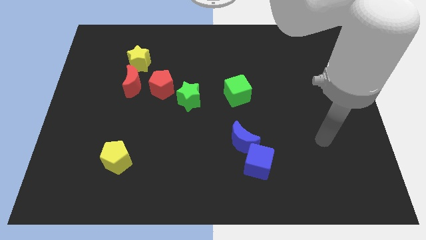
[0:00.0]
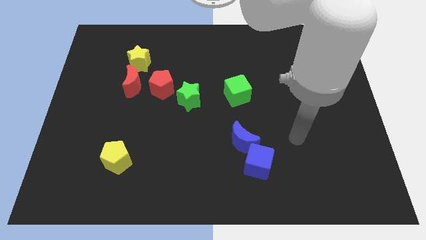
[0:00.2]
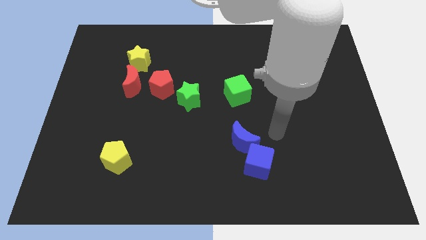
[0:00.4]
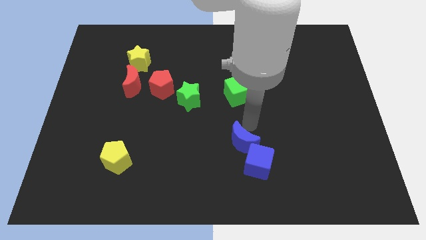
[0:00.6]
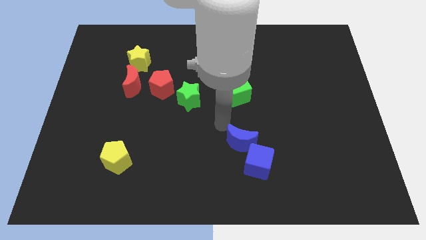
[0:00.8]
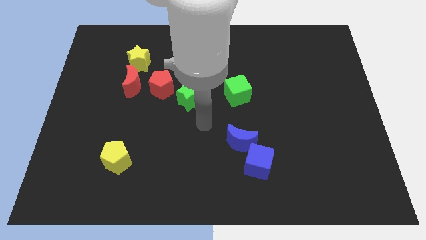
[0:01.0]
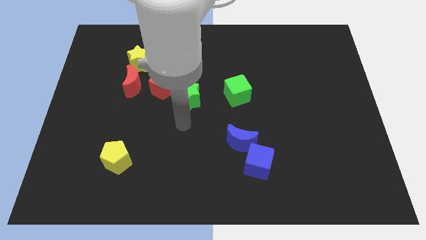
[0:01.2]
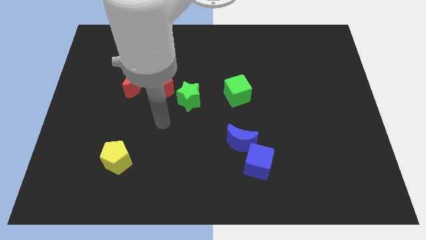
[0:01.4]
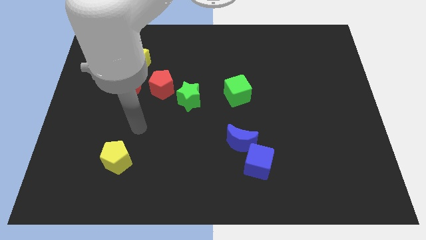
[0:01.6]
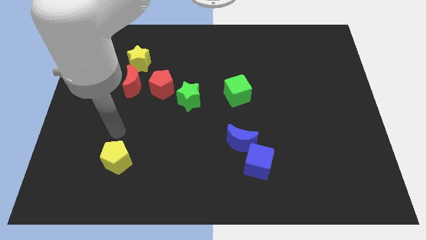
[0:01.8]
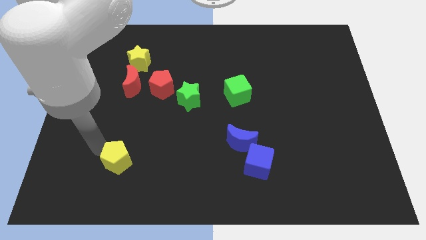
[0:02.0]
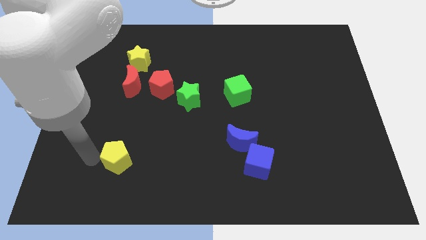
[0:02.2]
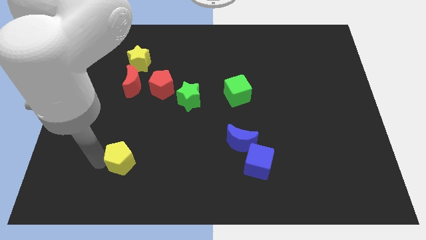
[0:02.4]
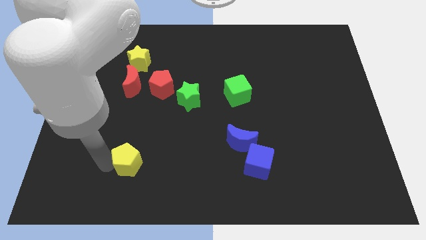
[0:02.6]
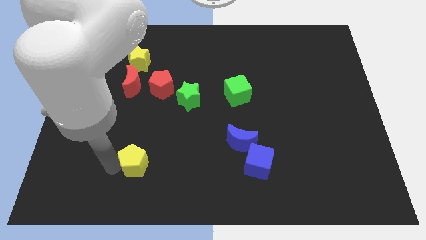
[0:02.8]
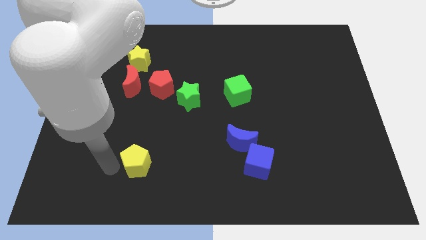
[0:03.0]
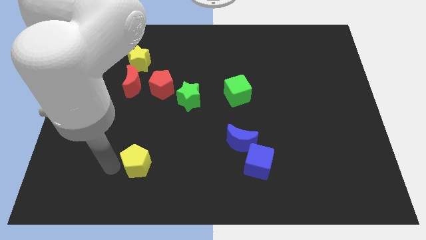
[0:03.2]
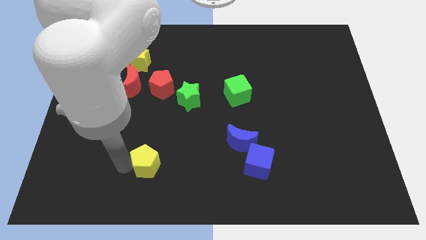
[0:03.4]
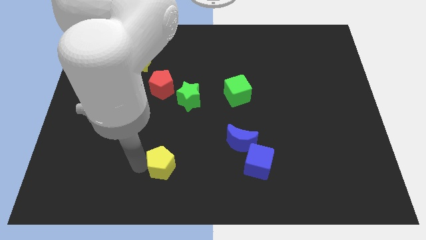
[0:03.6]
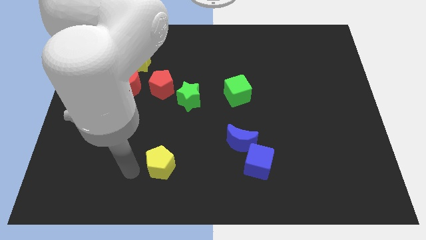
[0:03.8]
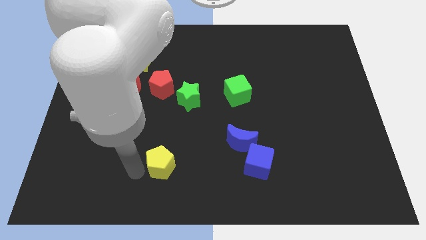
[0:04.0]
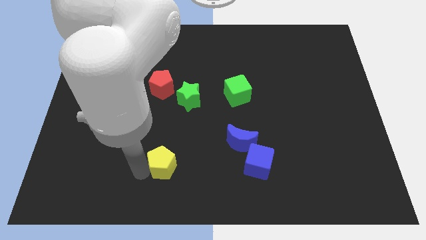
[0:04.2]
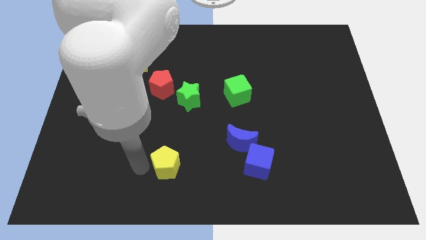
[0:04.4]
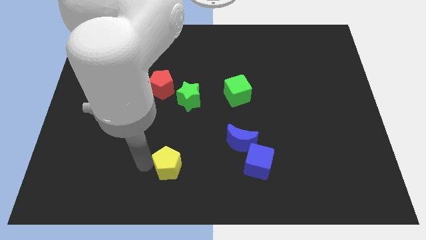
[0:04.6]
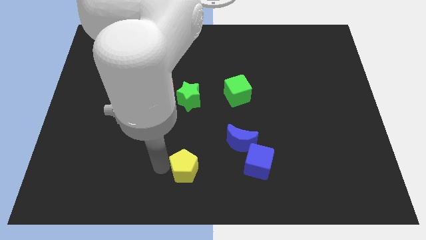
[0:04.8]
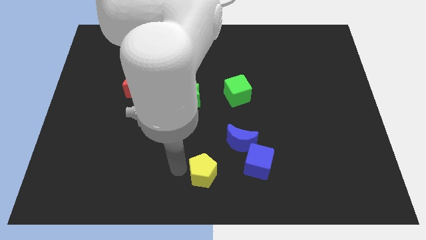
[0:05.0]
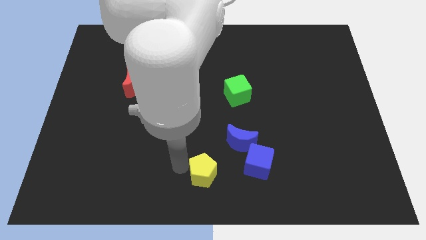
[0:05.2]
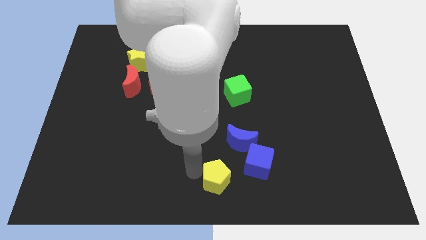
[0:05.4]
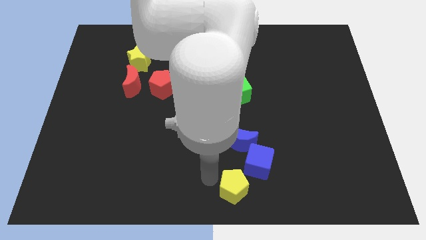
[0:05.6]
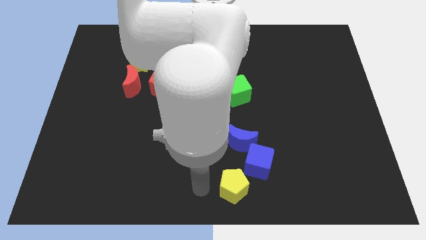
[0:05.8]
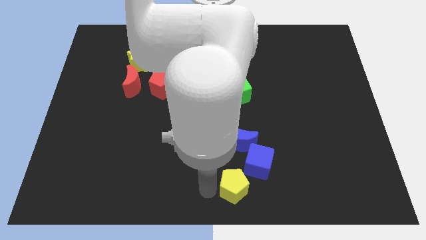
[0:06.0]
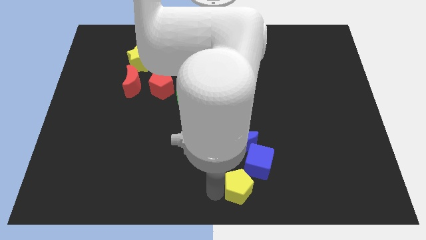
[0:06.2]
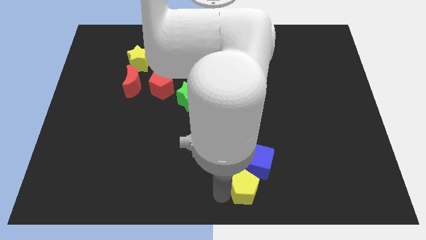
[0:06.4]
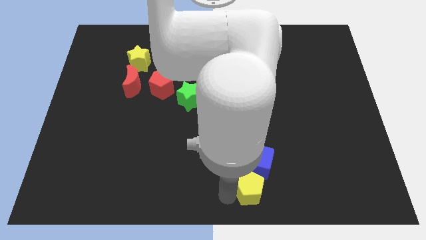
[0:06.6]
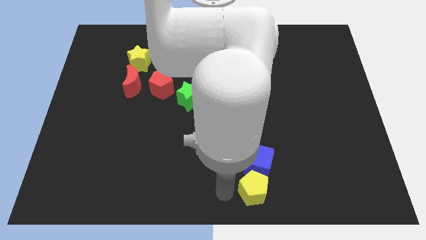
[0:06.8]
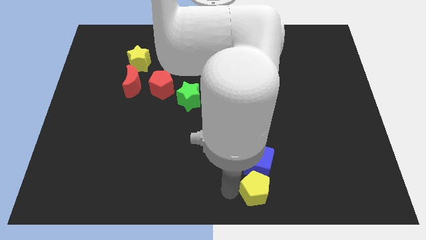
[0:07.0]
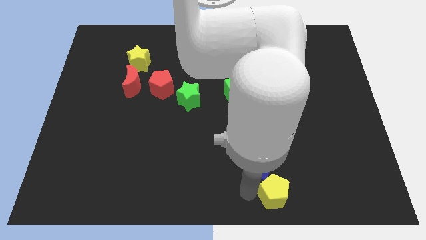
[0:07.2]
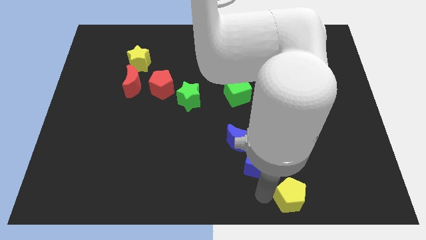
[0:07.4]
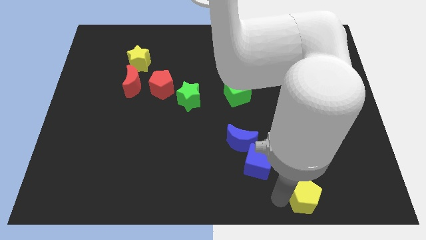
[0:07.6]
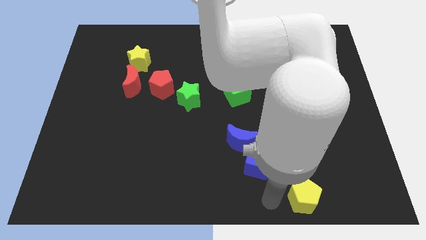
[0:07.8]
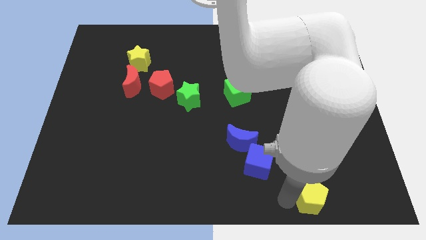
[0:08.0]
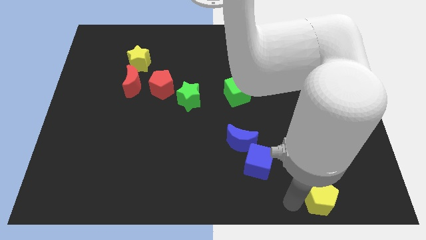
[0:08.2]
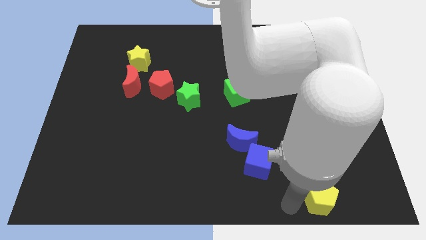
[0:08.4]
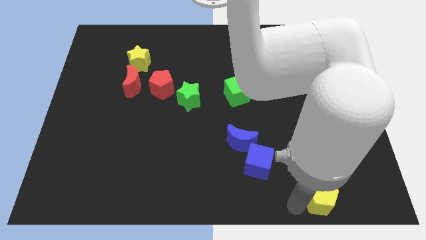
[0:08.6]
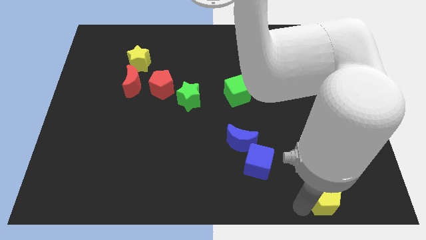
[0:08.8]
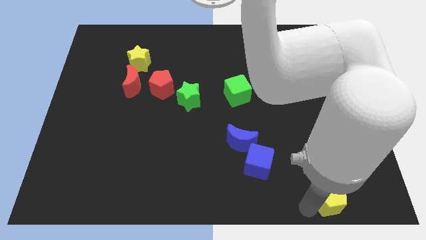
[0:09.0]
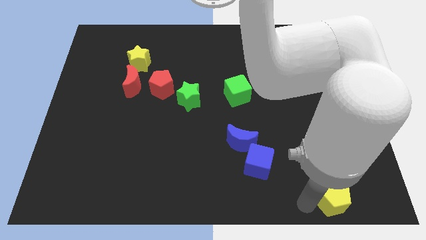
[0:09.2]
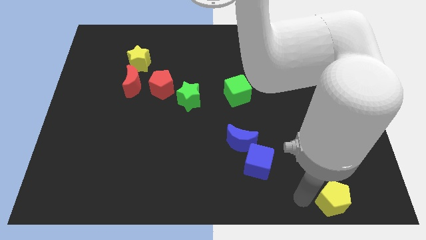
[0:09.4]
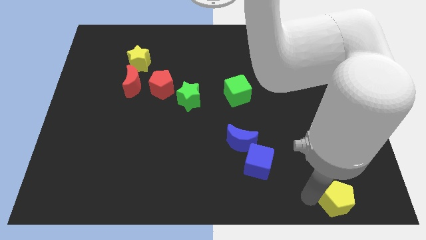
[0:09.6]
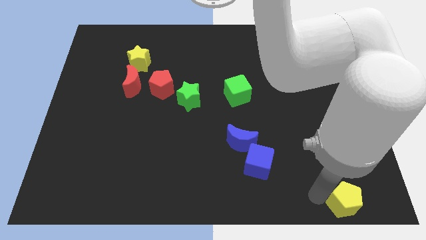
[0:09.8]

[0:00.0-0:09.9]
move the yellow pentagon to the bottom right of the board

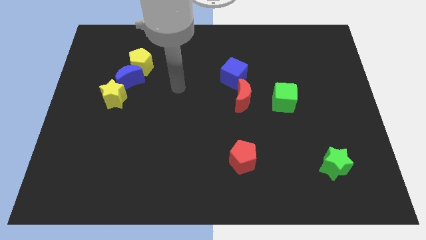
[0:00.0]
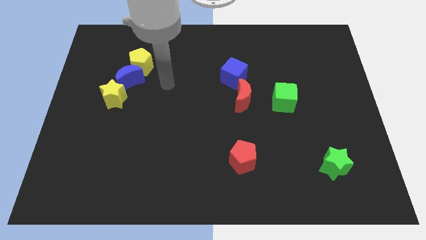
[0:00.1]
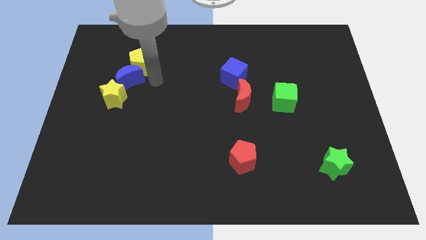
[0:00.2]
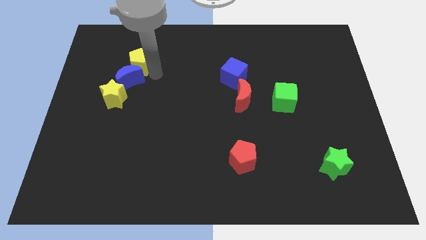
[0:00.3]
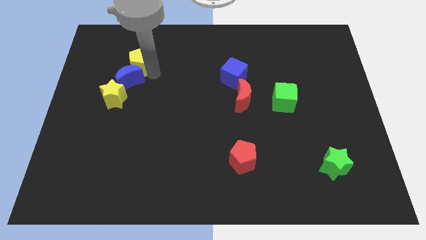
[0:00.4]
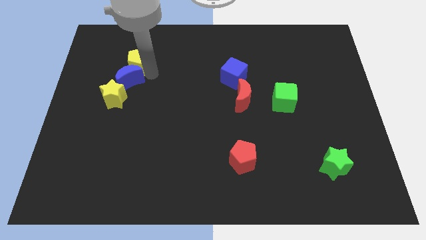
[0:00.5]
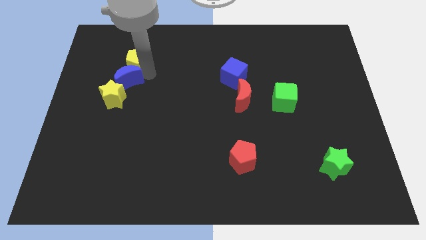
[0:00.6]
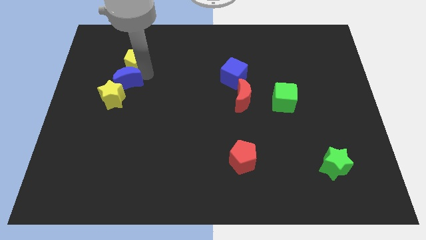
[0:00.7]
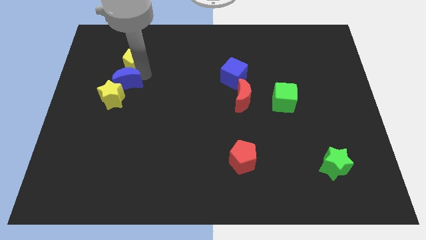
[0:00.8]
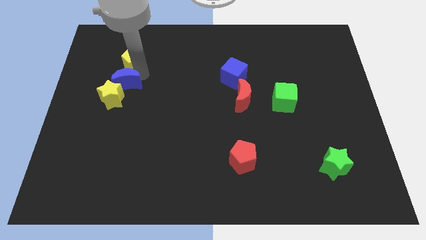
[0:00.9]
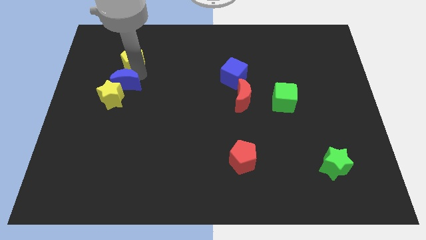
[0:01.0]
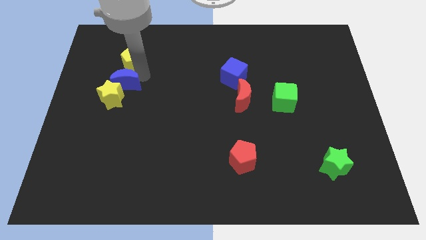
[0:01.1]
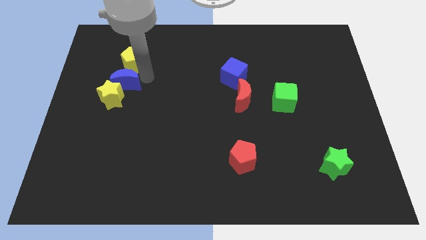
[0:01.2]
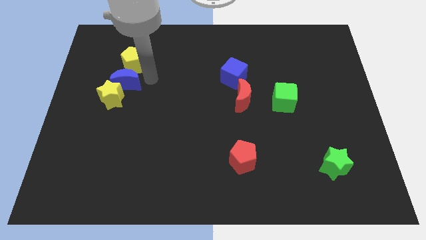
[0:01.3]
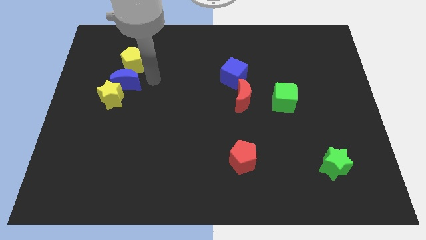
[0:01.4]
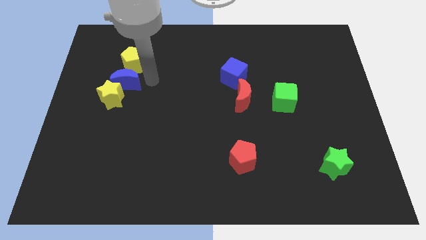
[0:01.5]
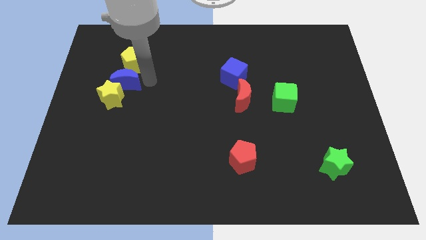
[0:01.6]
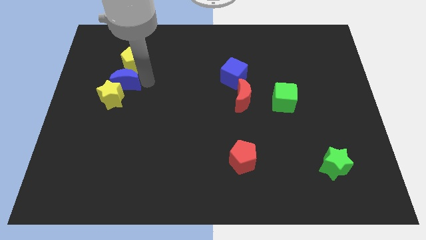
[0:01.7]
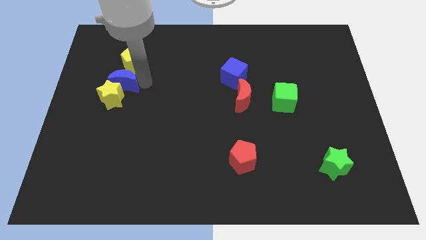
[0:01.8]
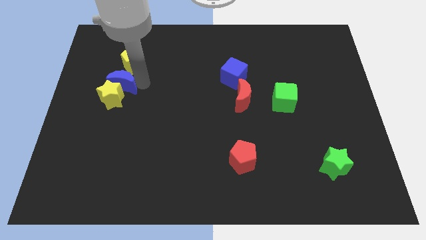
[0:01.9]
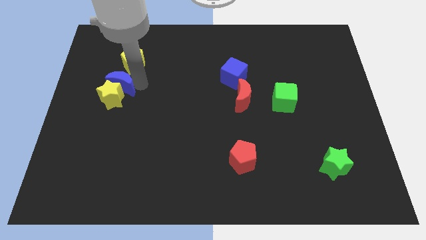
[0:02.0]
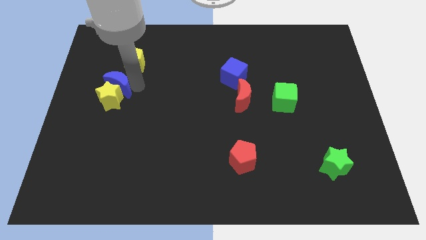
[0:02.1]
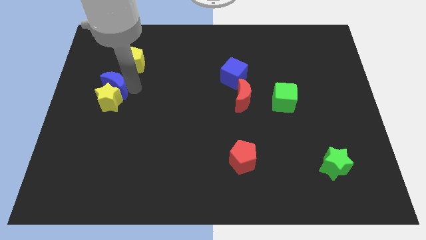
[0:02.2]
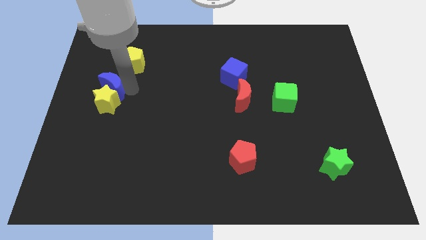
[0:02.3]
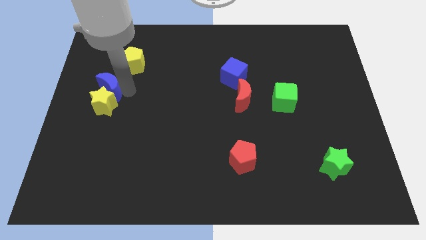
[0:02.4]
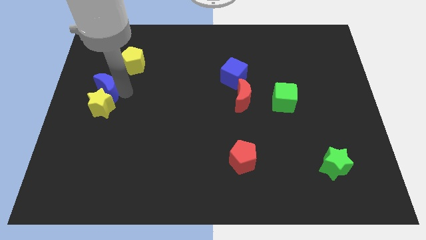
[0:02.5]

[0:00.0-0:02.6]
push the blue moon to the center left
